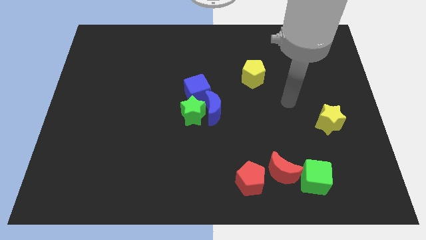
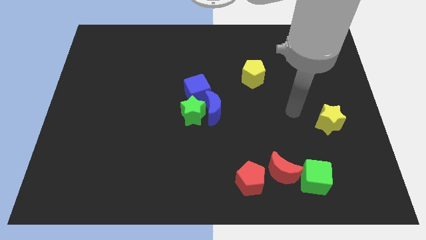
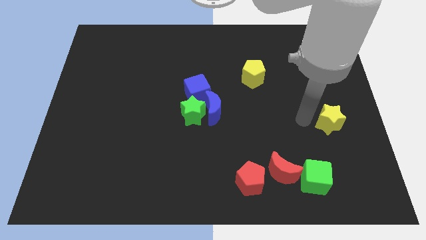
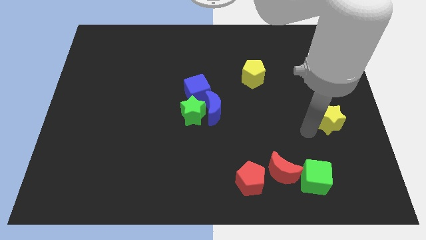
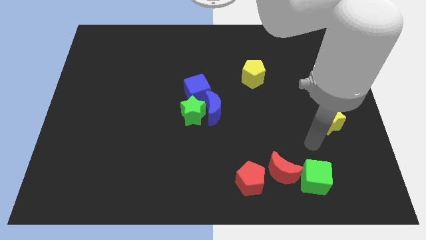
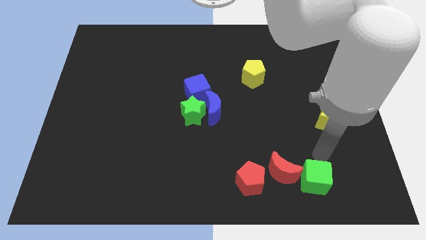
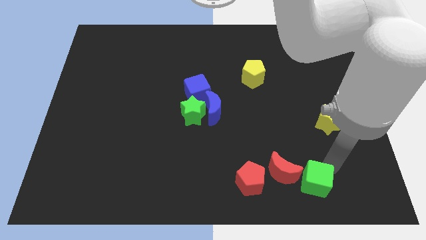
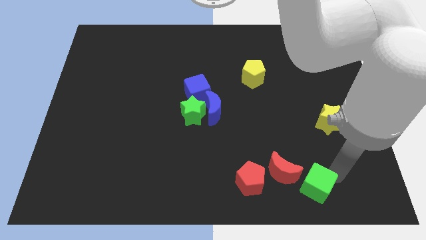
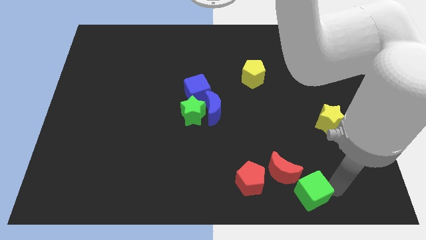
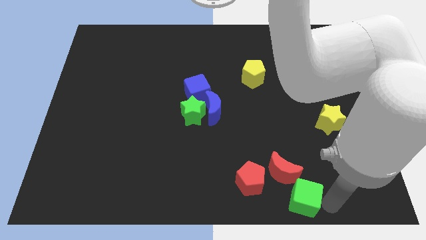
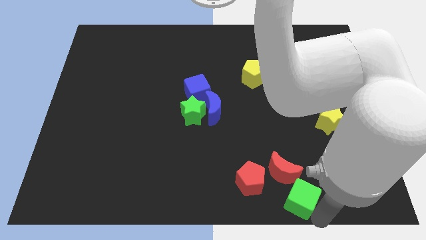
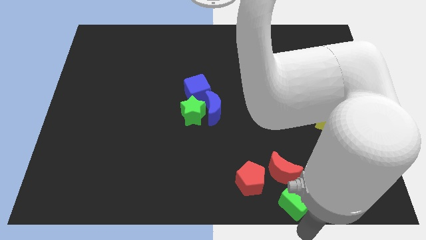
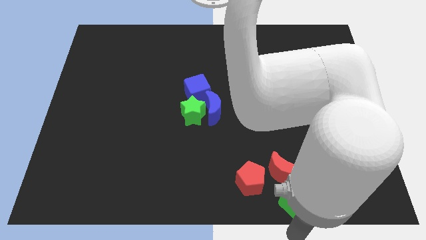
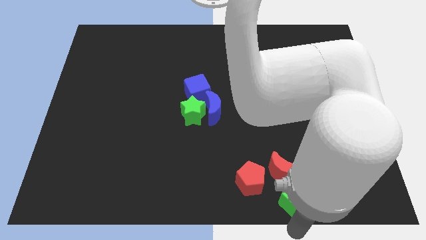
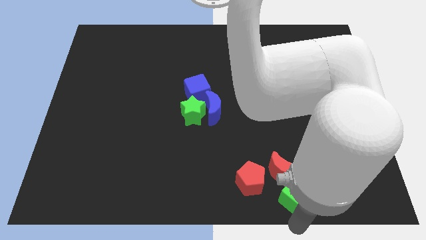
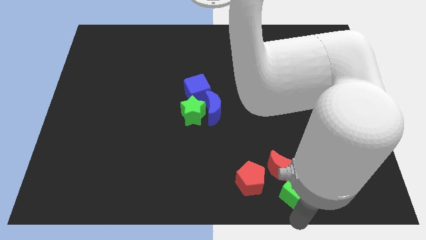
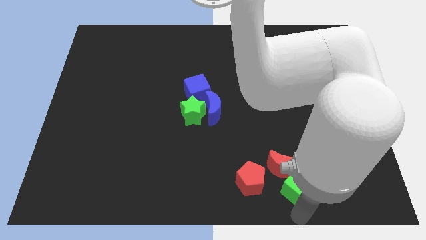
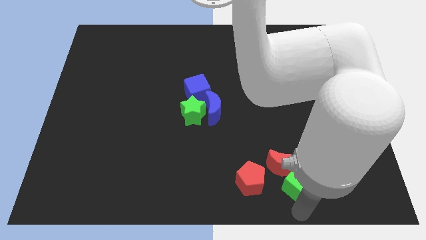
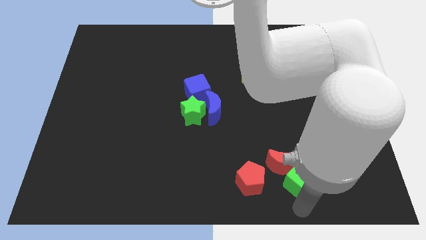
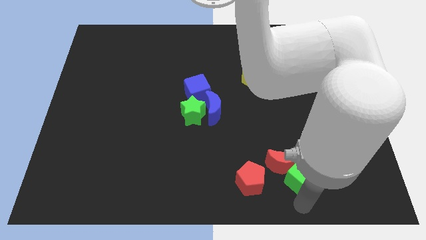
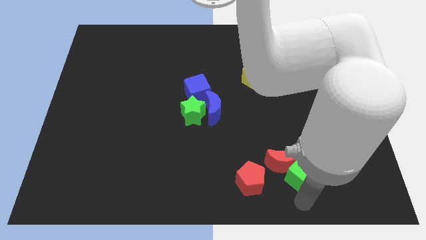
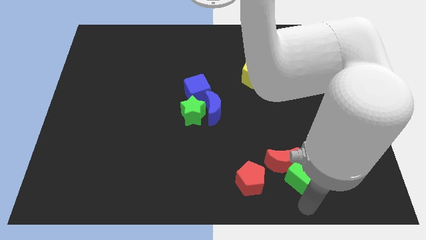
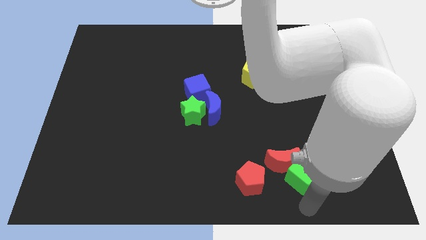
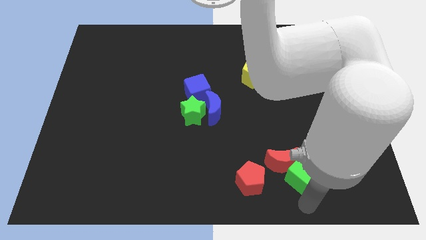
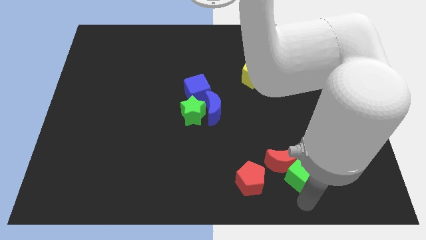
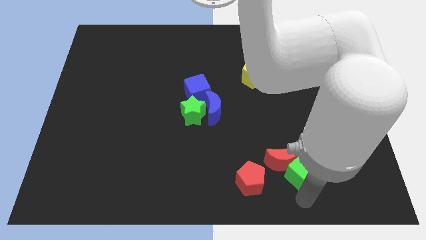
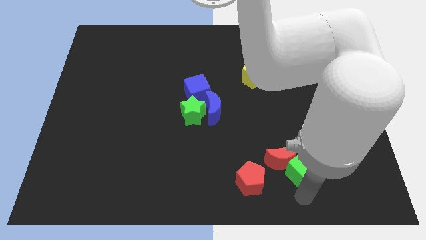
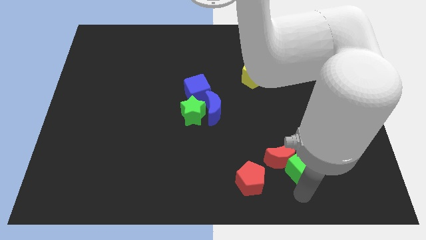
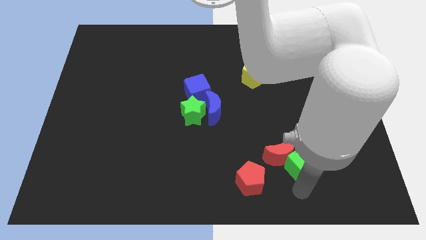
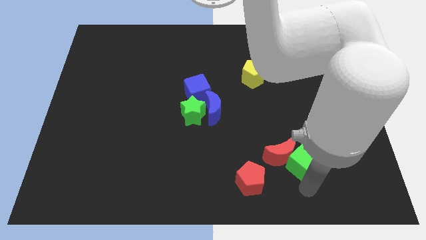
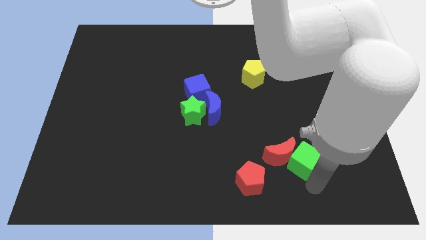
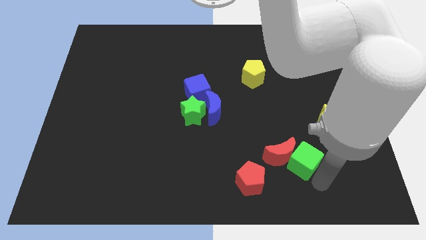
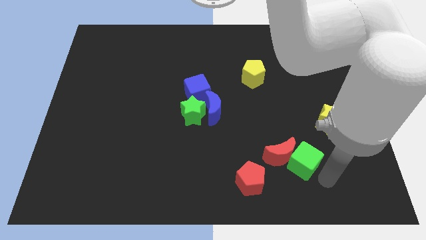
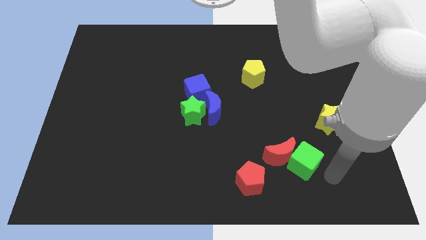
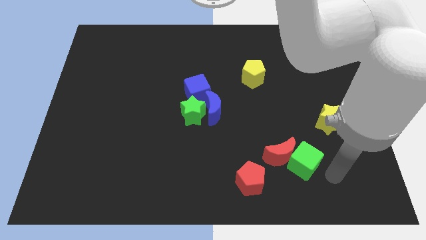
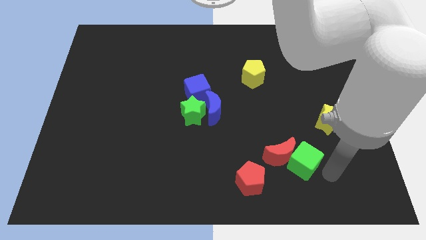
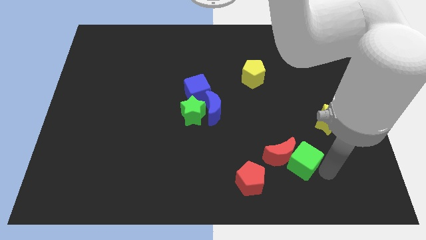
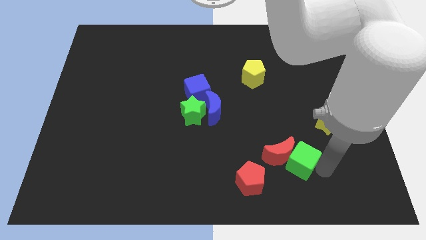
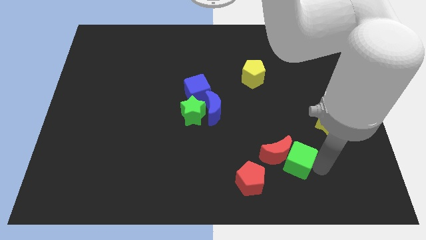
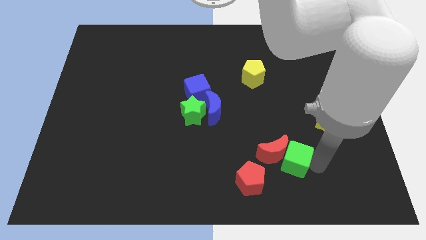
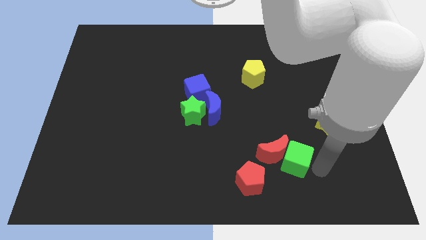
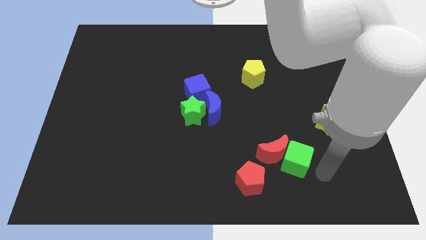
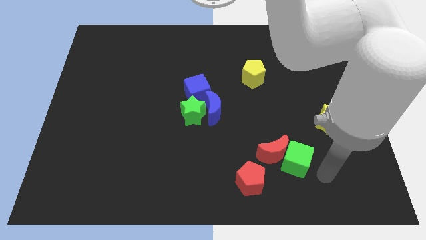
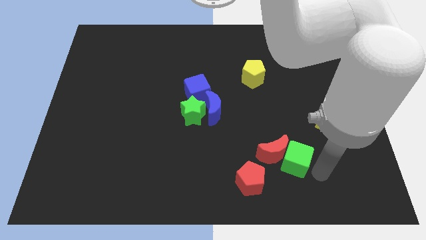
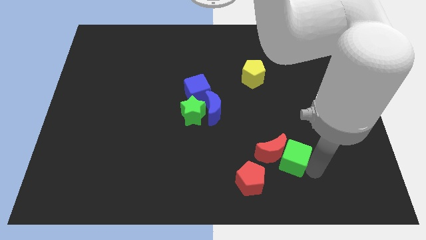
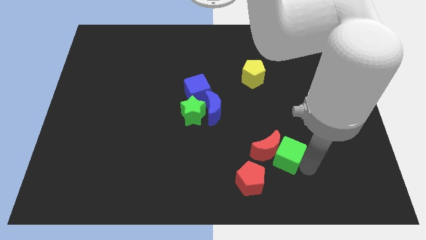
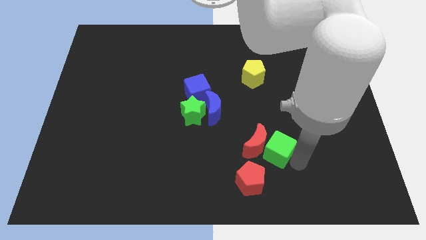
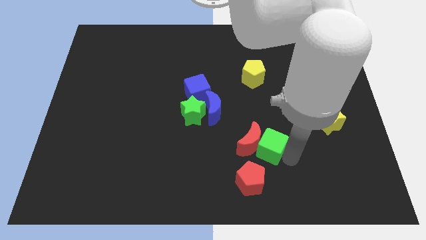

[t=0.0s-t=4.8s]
move the green cube above the red pentagon

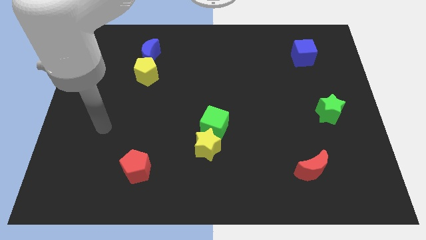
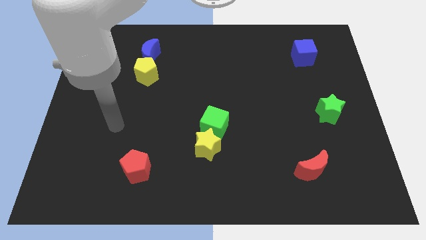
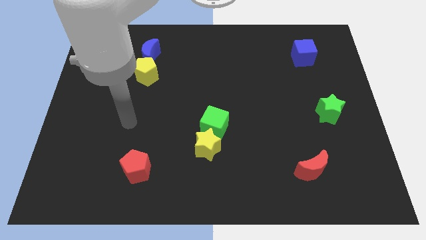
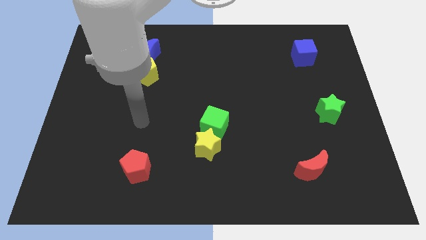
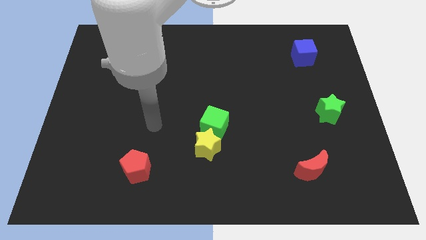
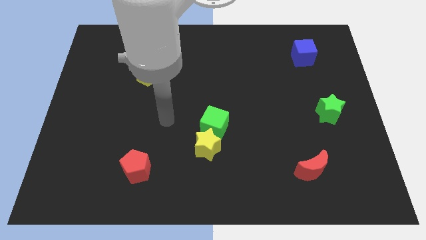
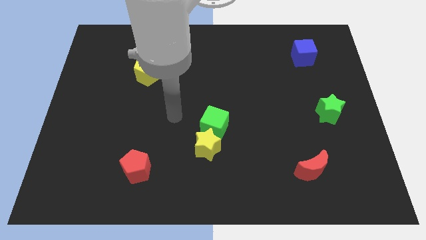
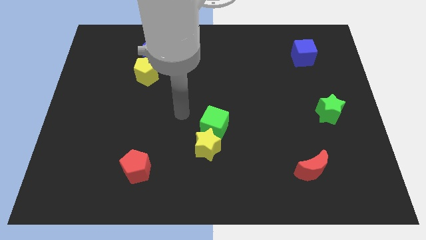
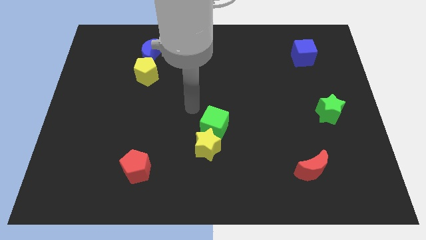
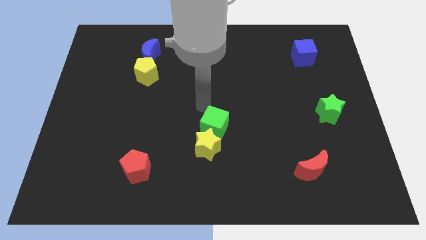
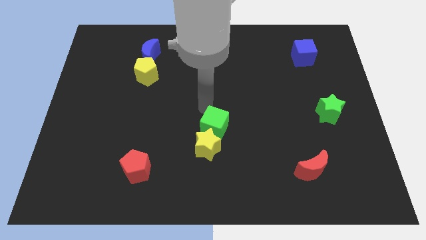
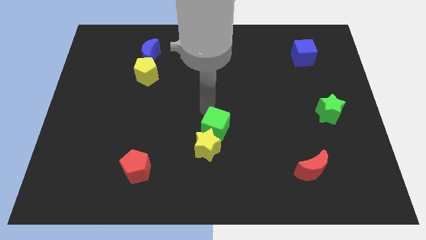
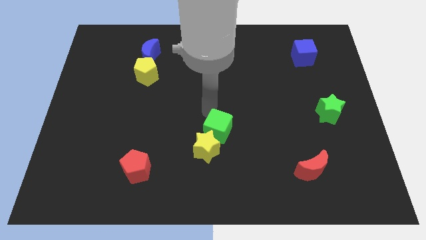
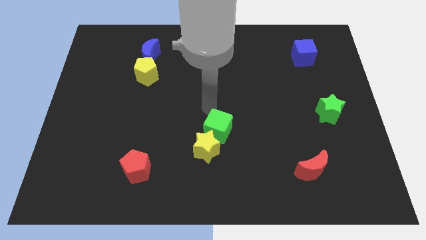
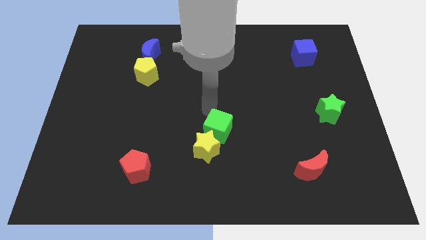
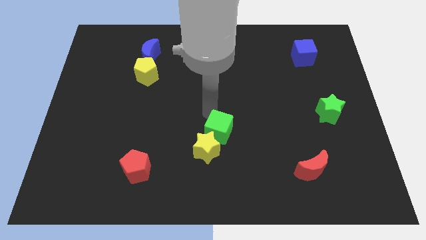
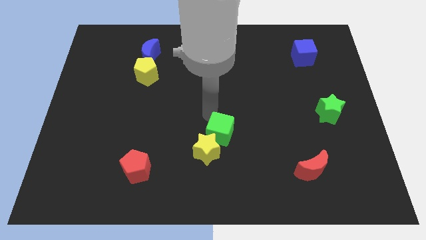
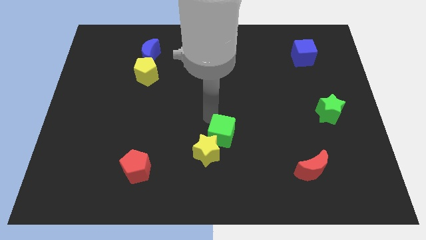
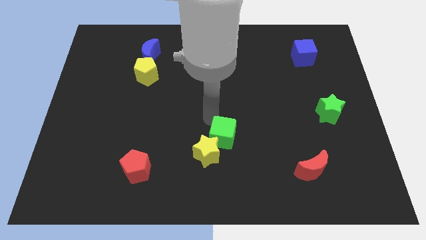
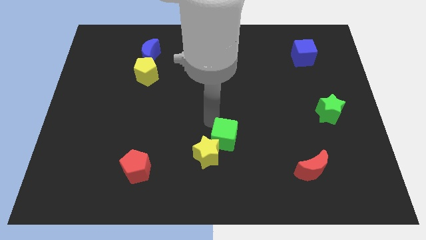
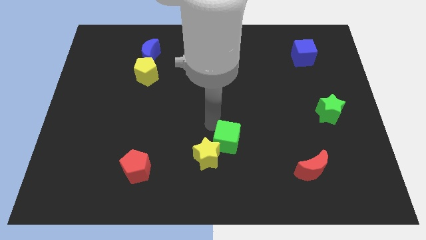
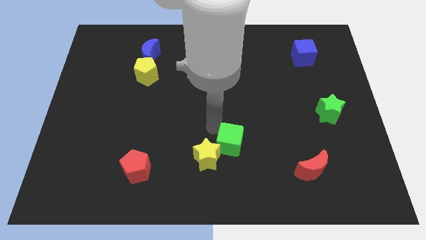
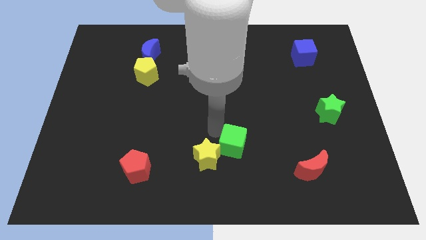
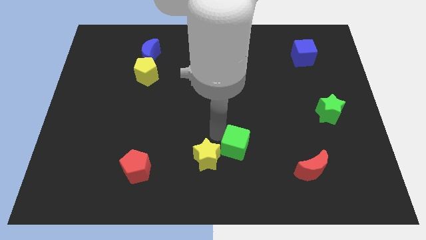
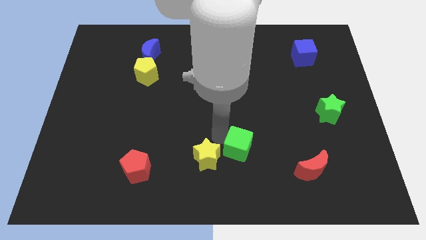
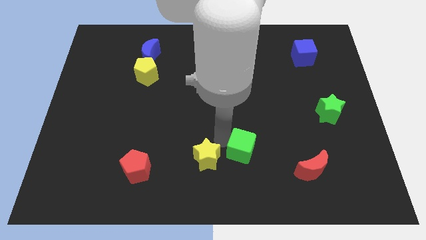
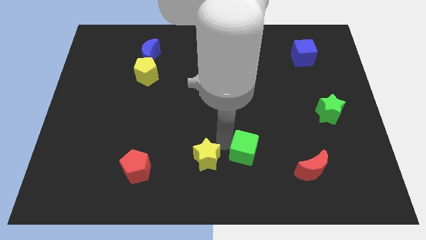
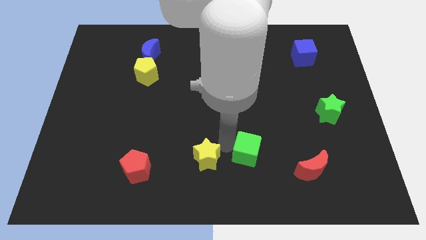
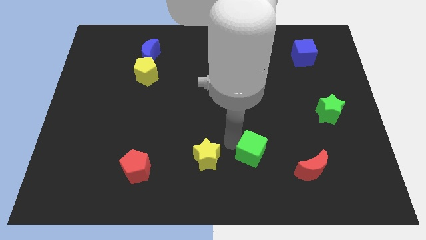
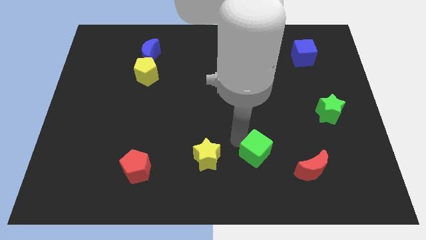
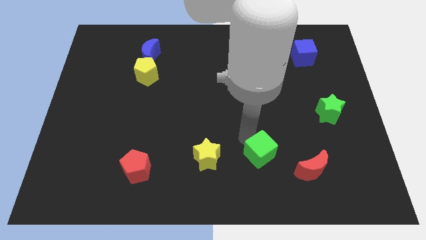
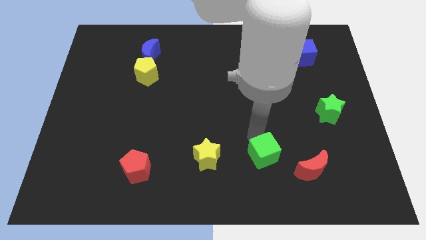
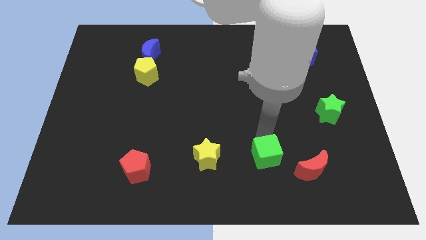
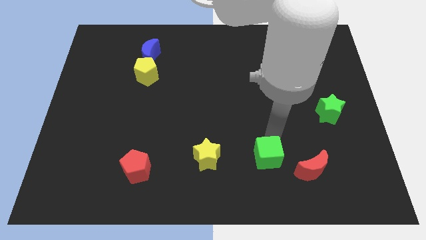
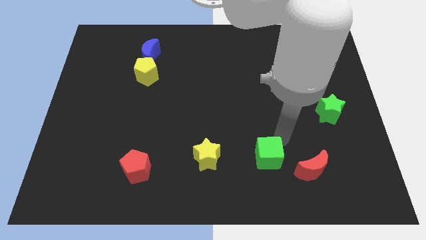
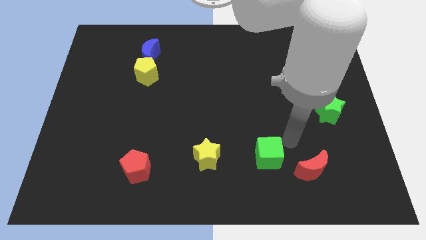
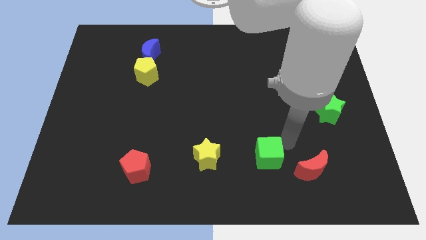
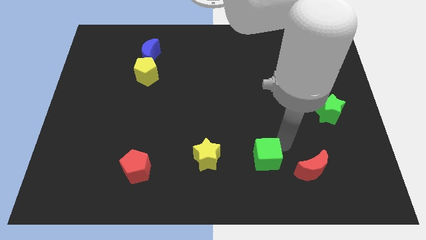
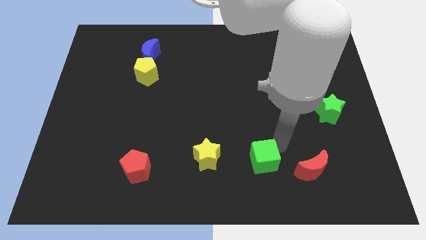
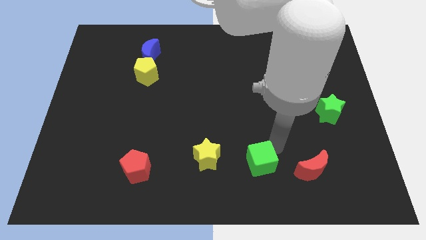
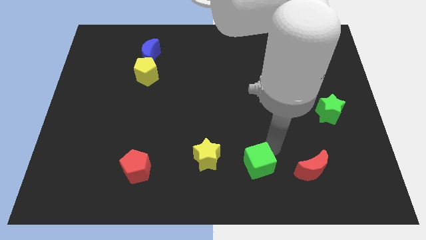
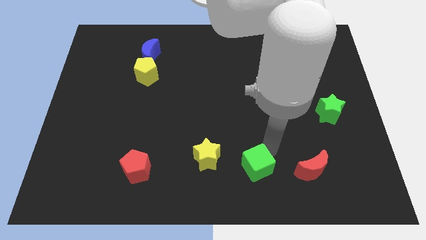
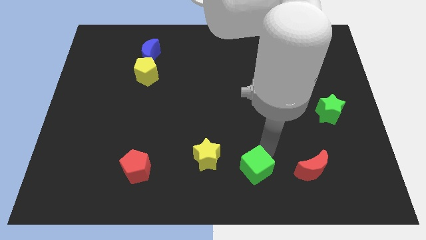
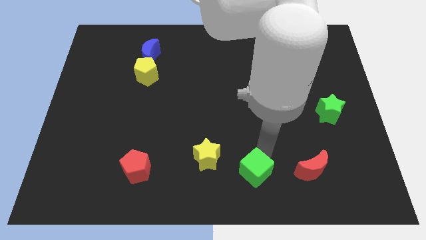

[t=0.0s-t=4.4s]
push the green cube diagonally down and to the right of the yellow star
